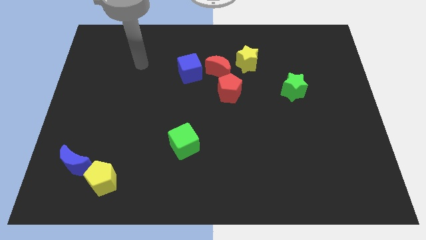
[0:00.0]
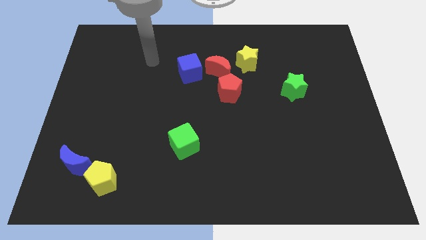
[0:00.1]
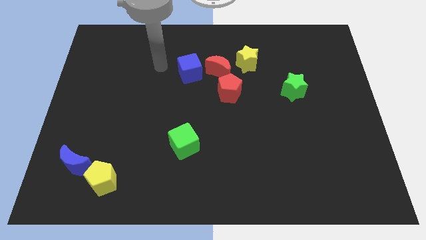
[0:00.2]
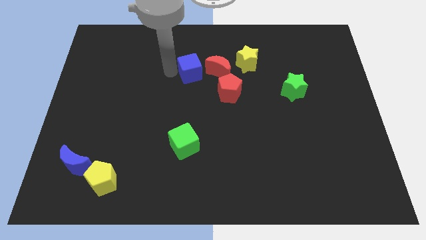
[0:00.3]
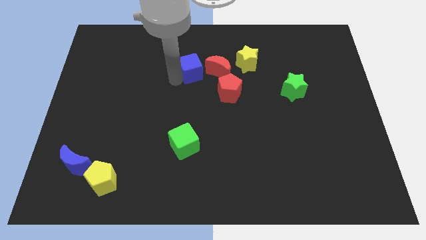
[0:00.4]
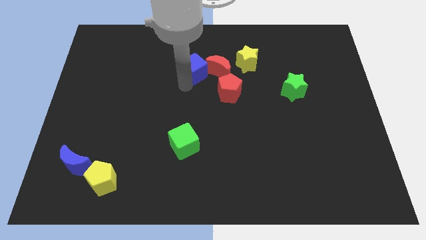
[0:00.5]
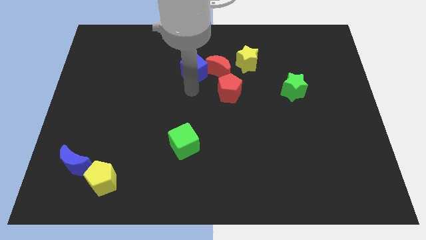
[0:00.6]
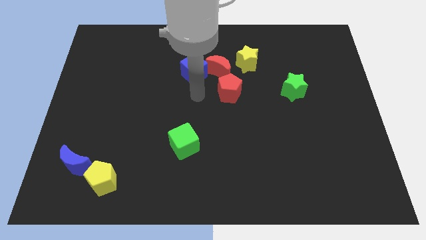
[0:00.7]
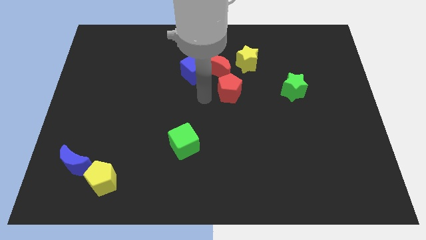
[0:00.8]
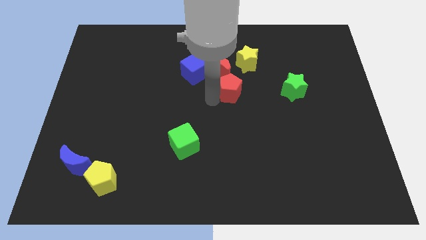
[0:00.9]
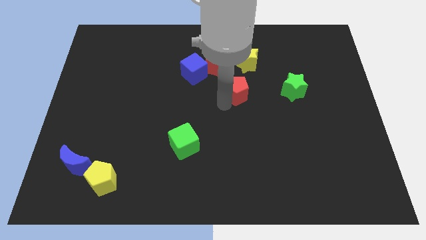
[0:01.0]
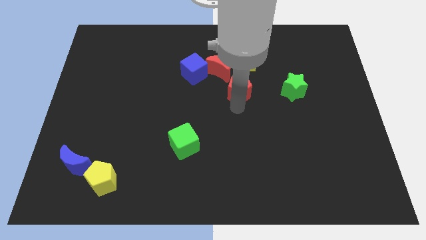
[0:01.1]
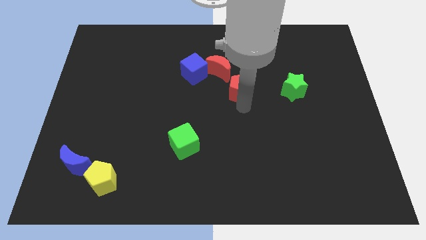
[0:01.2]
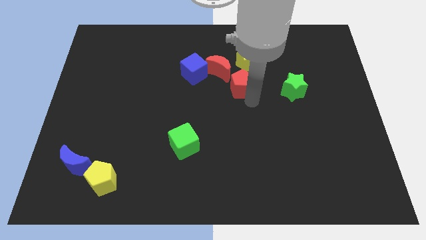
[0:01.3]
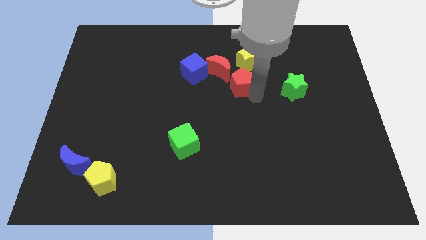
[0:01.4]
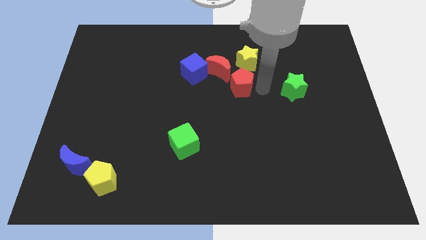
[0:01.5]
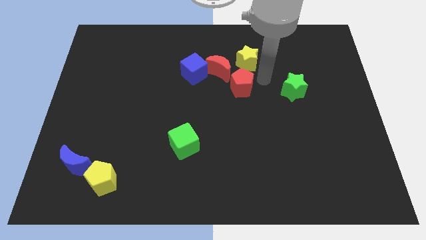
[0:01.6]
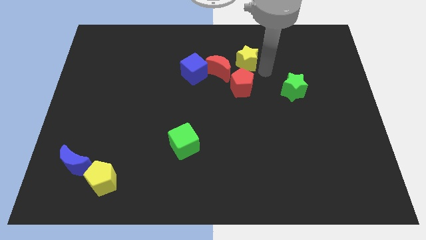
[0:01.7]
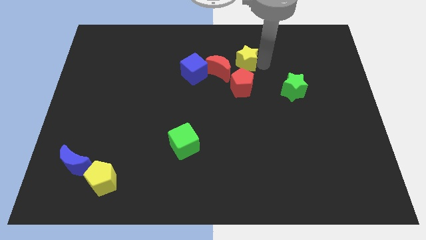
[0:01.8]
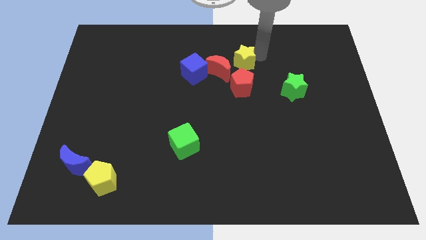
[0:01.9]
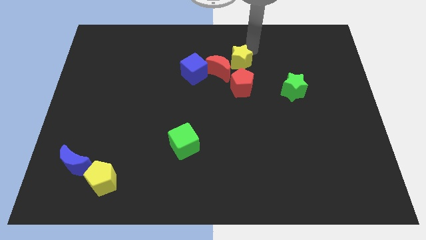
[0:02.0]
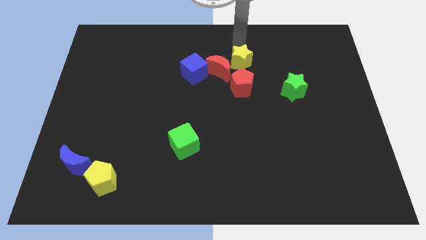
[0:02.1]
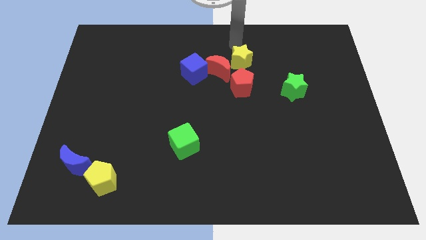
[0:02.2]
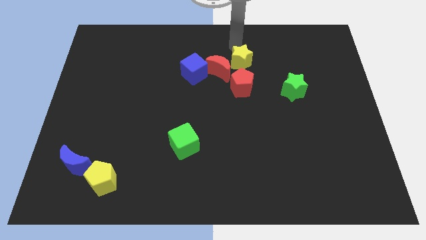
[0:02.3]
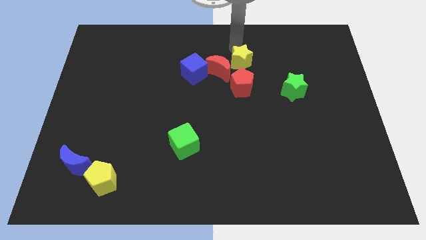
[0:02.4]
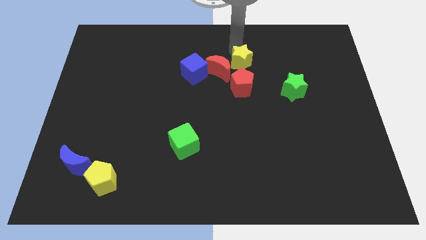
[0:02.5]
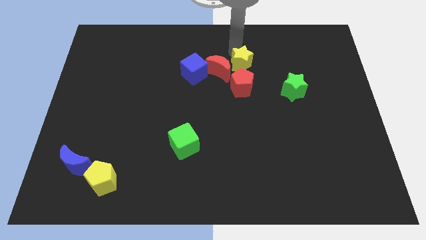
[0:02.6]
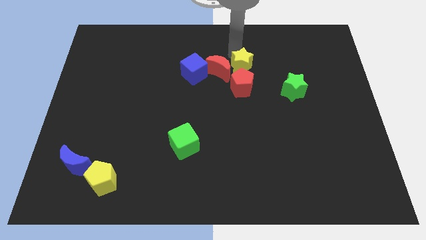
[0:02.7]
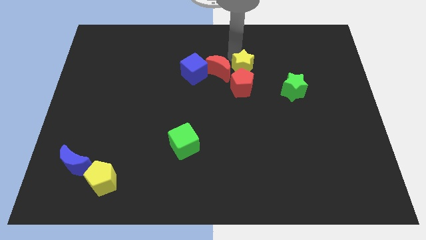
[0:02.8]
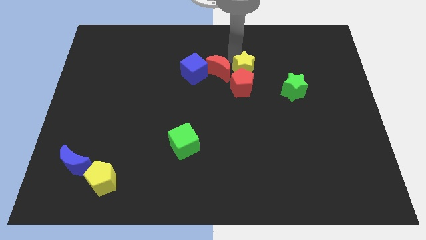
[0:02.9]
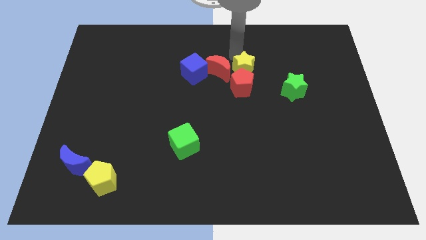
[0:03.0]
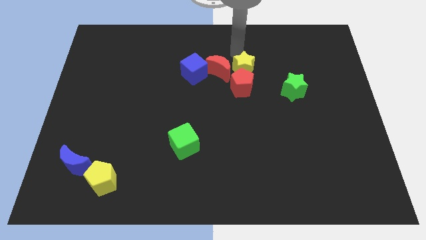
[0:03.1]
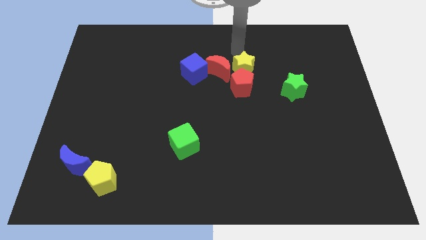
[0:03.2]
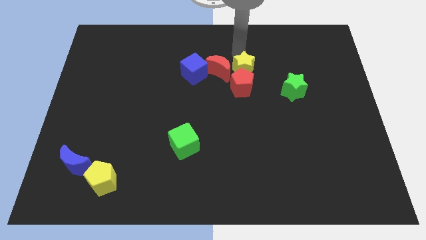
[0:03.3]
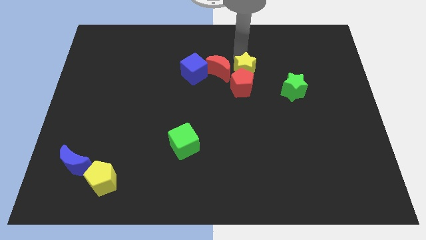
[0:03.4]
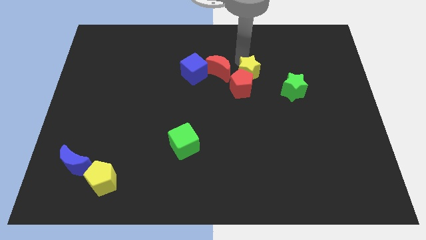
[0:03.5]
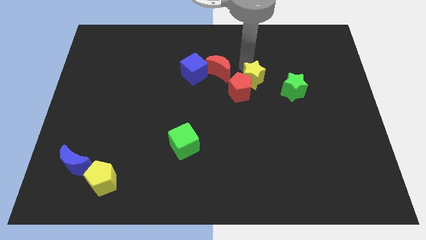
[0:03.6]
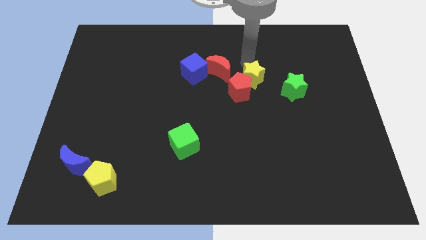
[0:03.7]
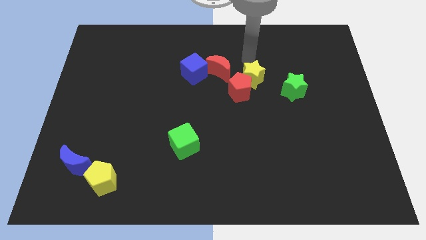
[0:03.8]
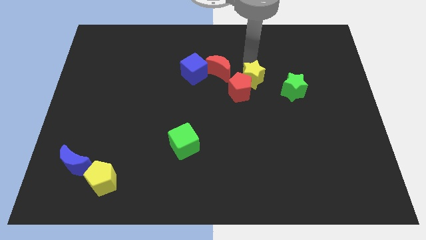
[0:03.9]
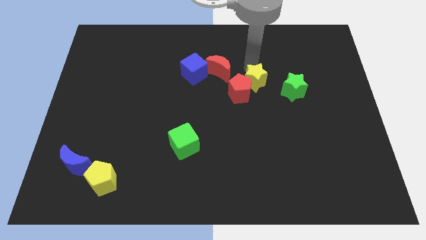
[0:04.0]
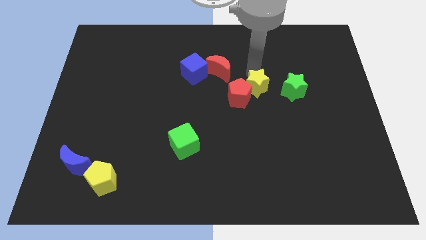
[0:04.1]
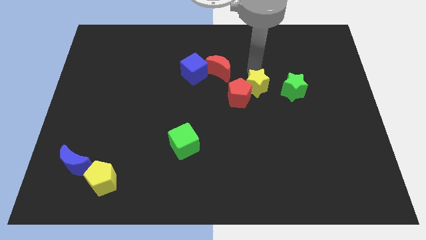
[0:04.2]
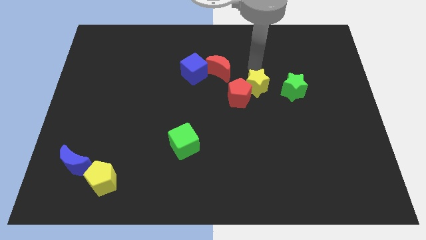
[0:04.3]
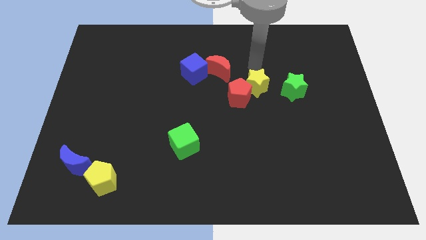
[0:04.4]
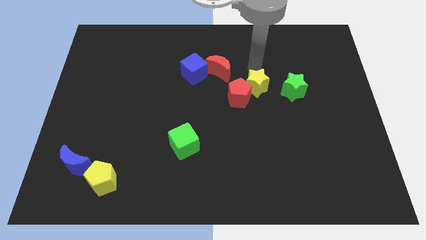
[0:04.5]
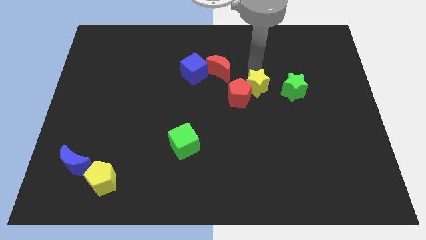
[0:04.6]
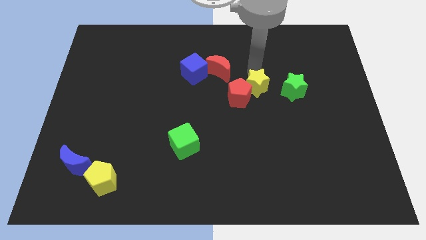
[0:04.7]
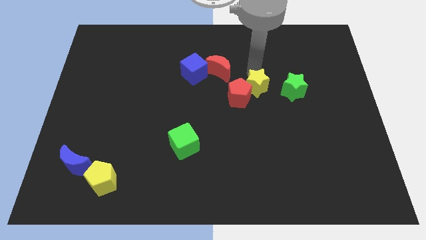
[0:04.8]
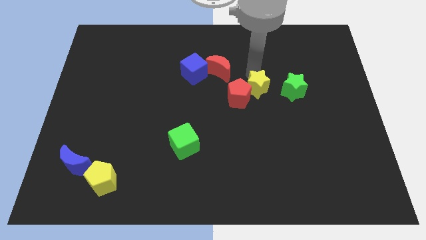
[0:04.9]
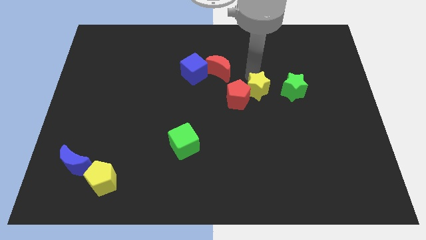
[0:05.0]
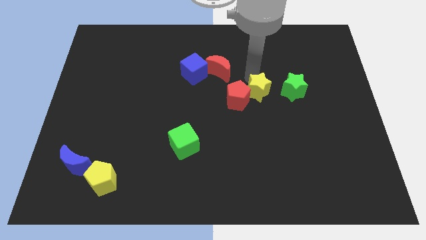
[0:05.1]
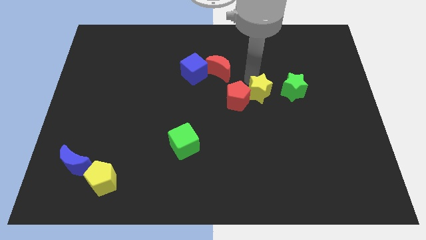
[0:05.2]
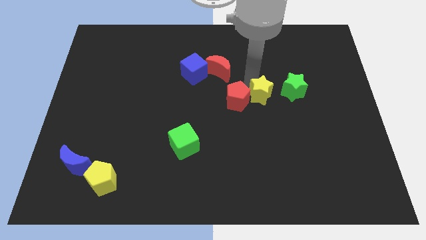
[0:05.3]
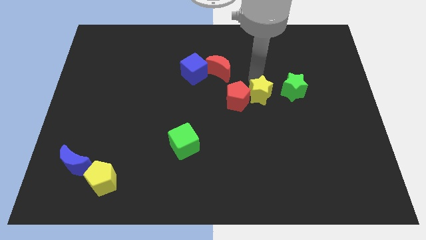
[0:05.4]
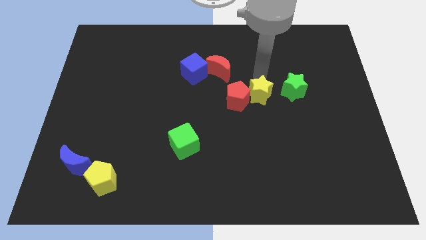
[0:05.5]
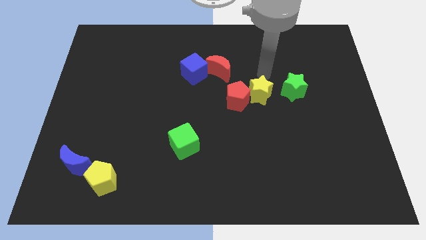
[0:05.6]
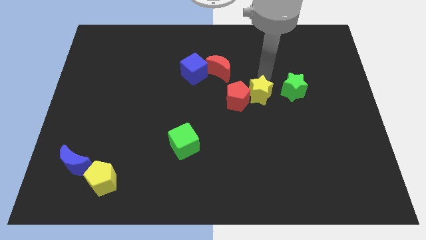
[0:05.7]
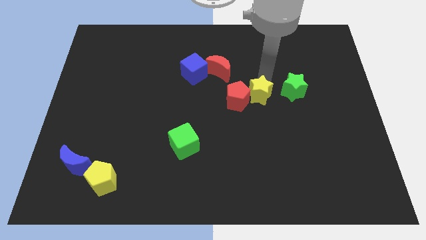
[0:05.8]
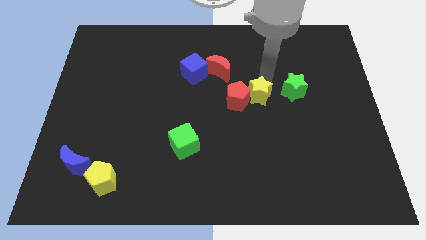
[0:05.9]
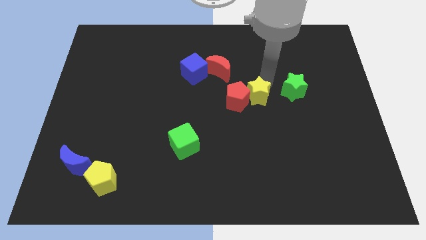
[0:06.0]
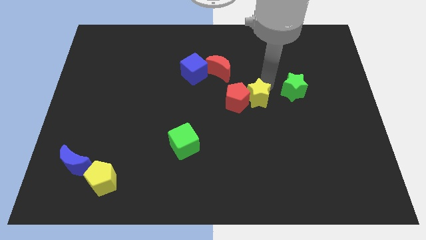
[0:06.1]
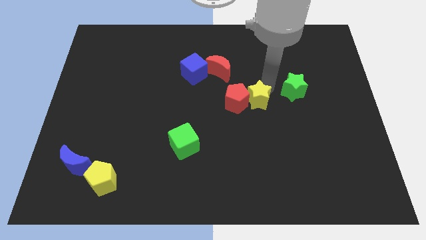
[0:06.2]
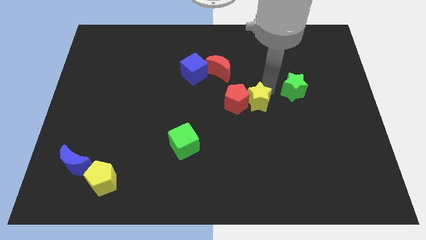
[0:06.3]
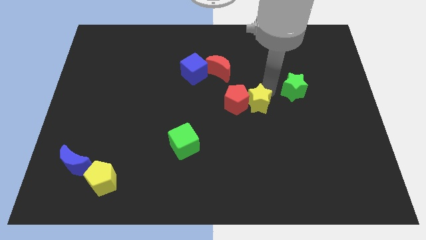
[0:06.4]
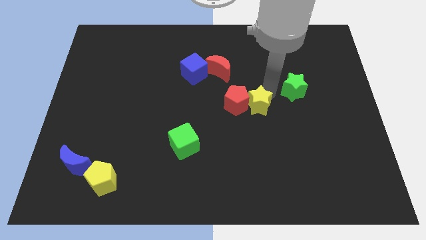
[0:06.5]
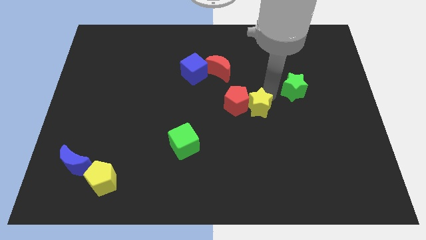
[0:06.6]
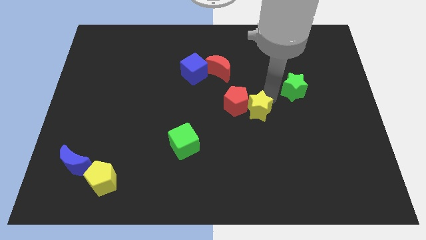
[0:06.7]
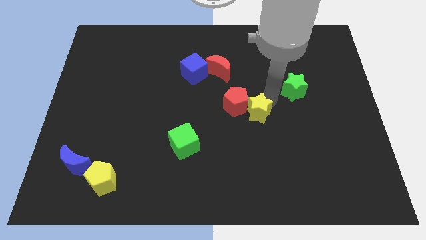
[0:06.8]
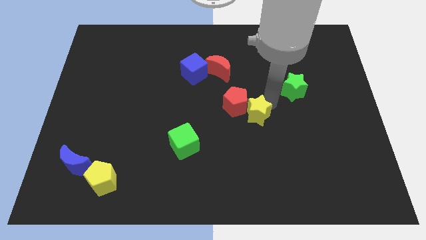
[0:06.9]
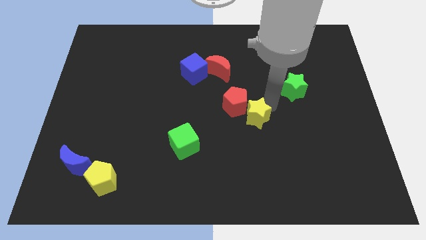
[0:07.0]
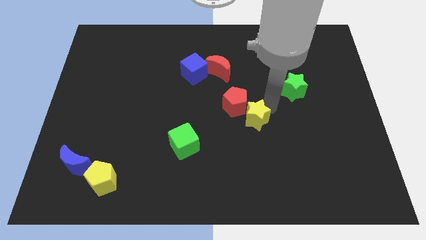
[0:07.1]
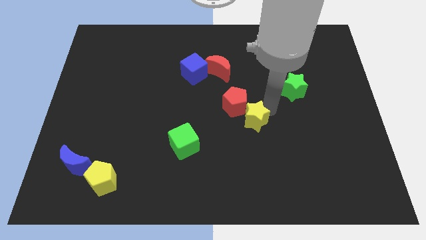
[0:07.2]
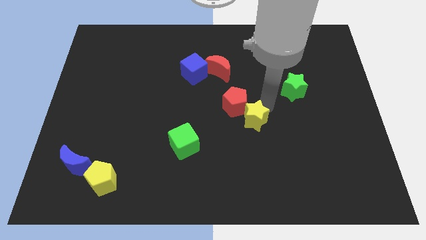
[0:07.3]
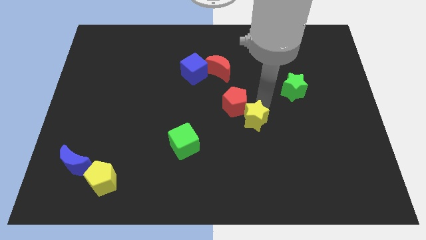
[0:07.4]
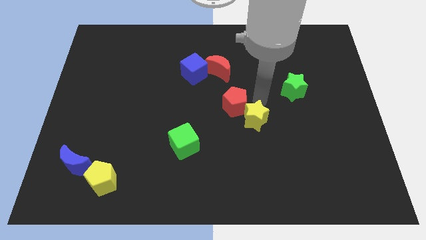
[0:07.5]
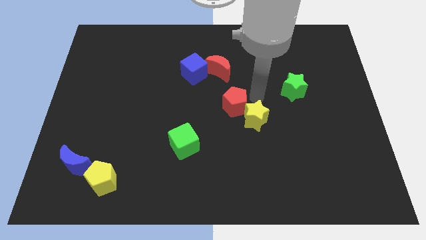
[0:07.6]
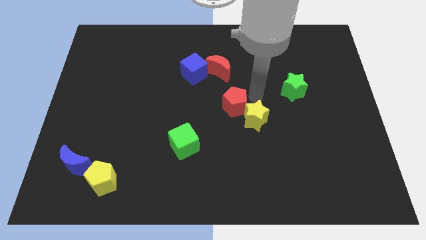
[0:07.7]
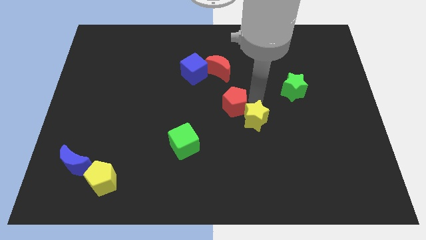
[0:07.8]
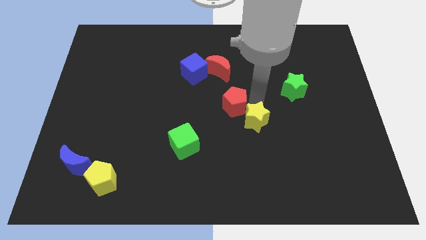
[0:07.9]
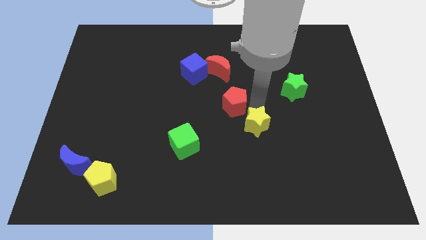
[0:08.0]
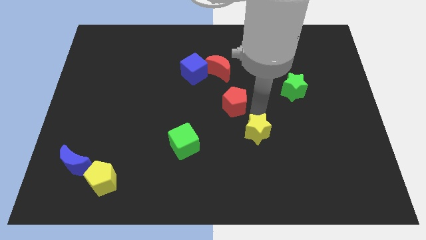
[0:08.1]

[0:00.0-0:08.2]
push the yellow star down
